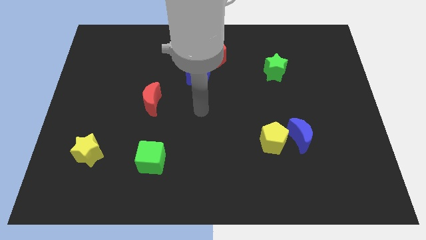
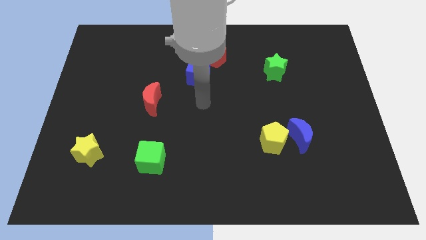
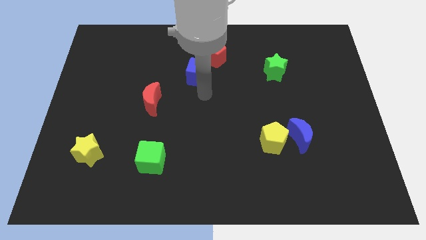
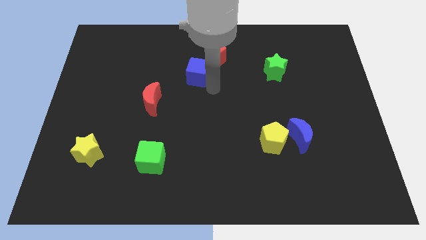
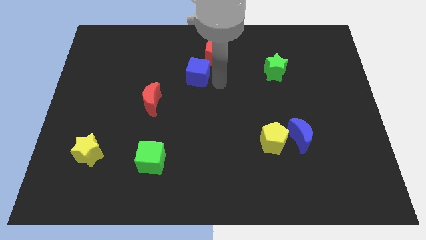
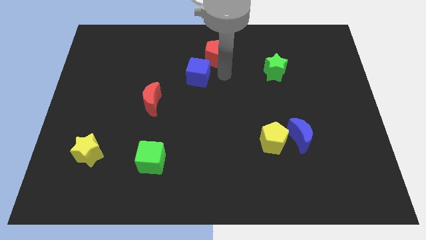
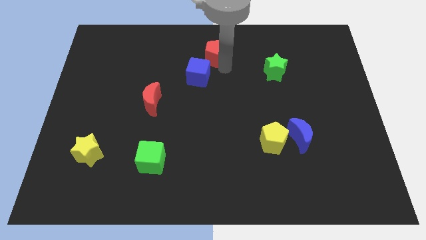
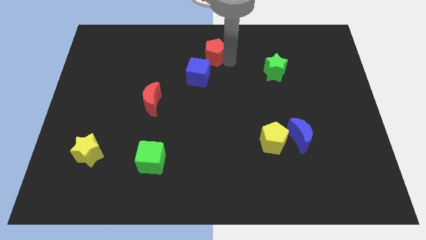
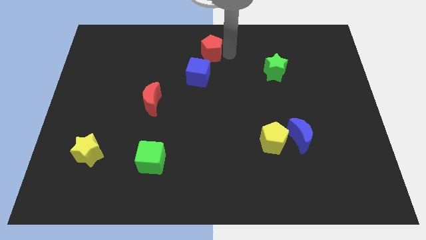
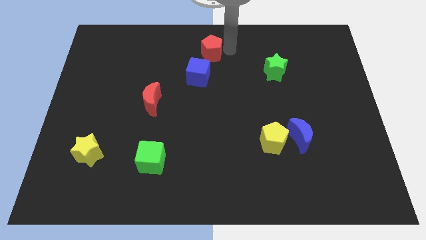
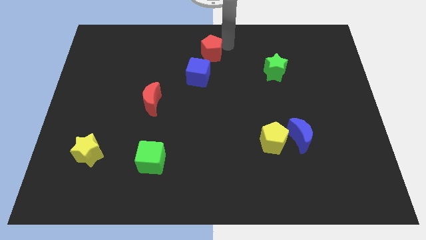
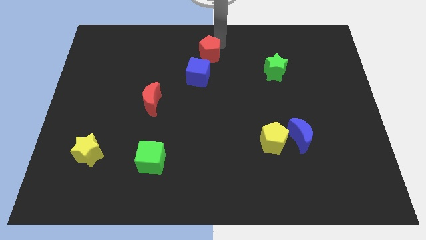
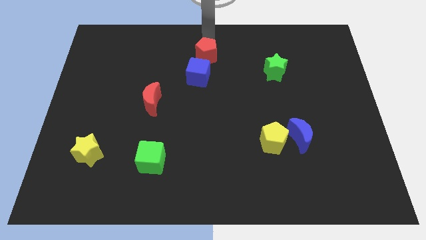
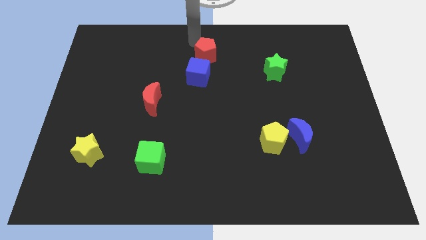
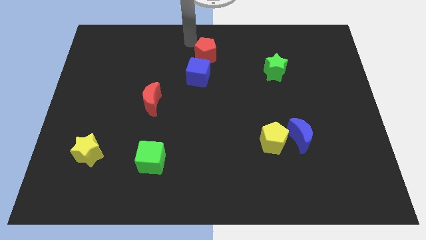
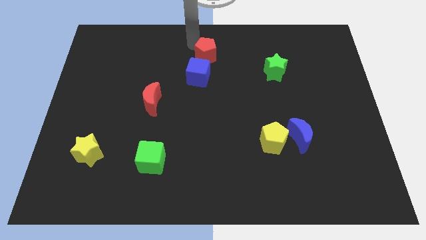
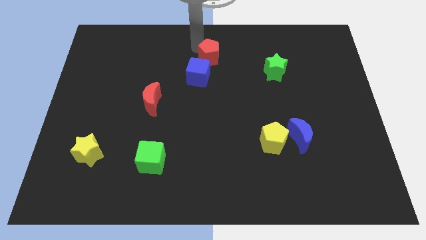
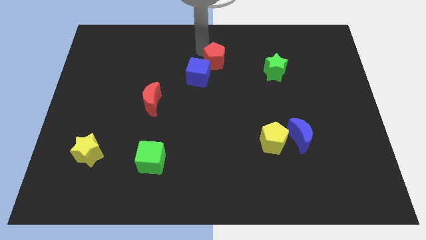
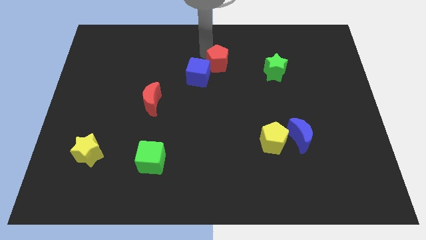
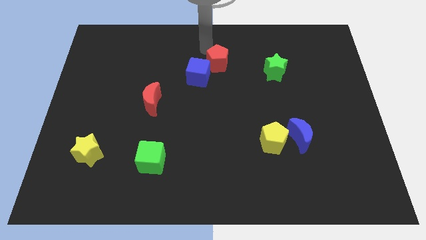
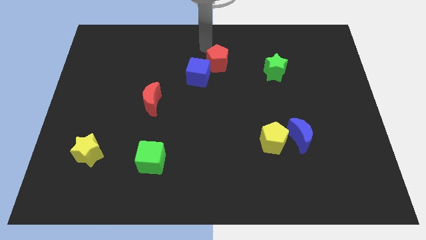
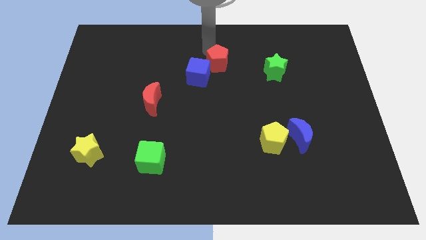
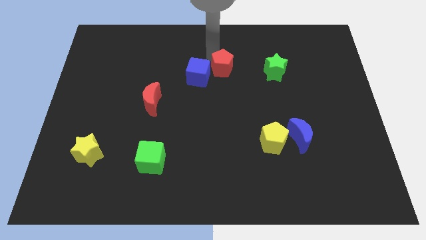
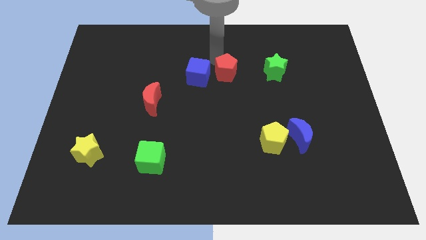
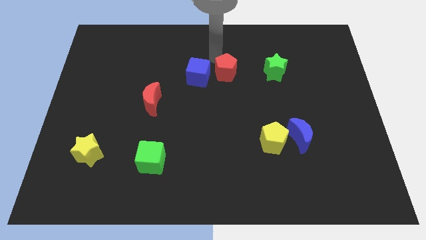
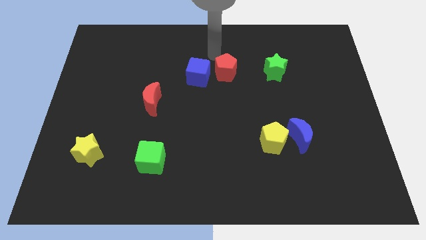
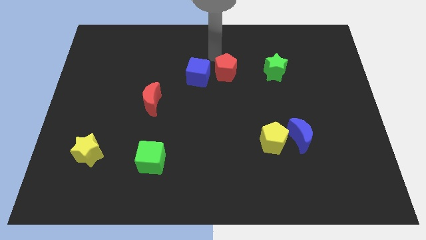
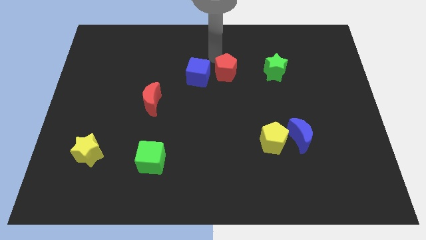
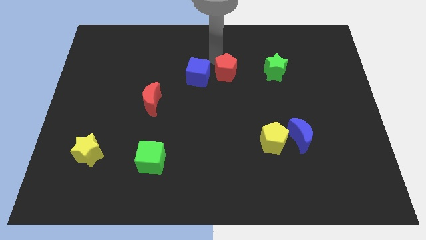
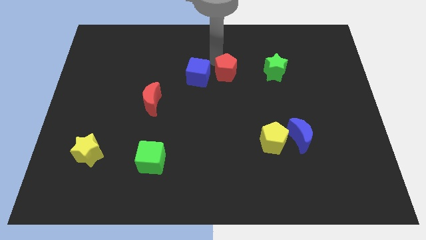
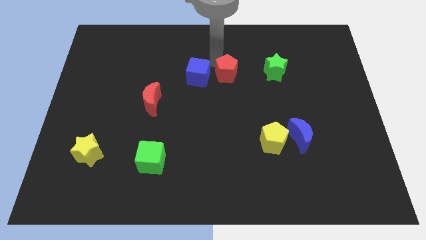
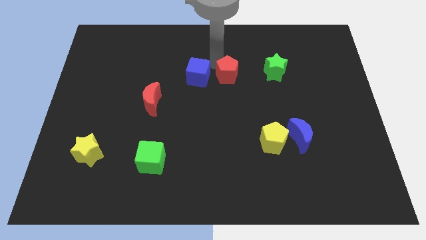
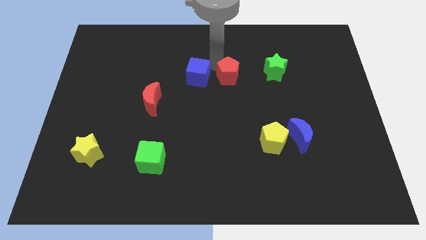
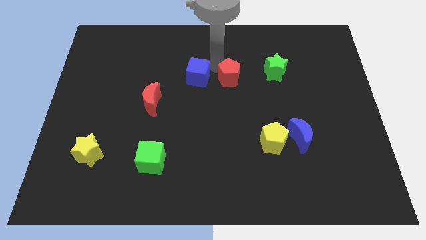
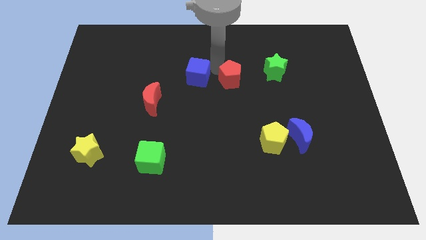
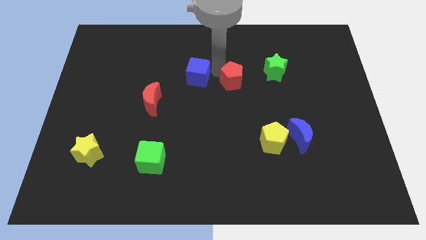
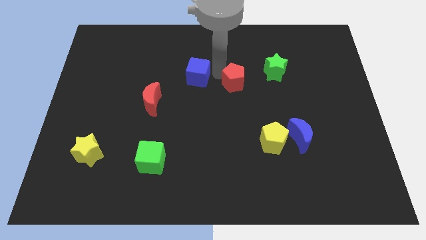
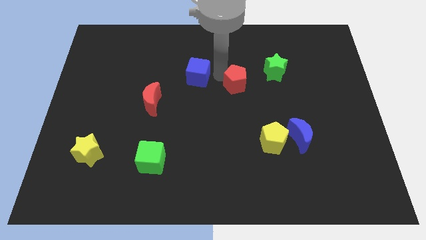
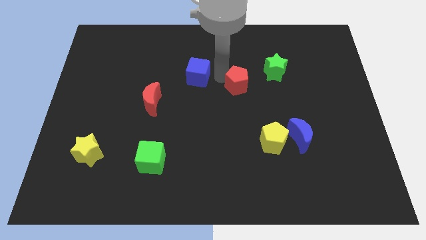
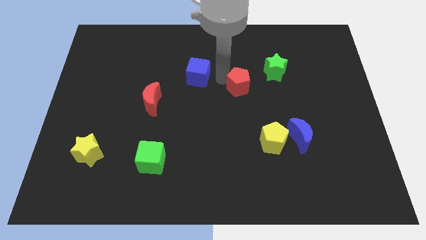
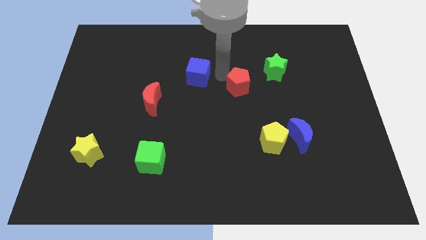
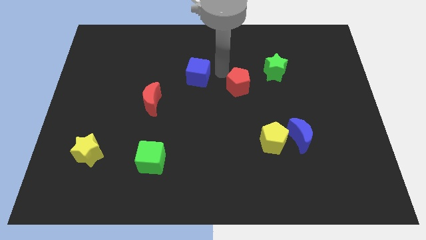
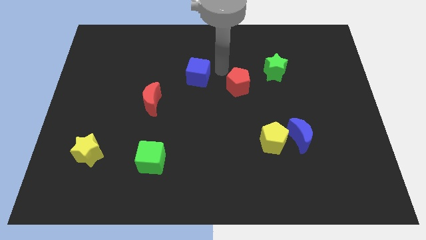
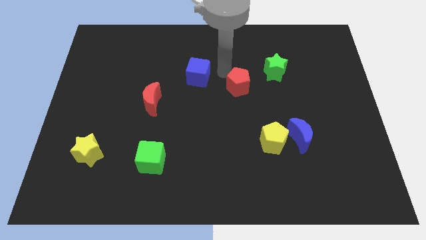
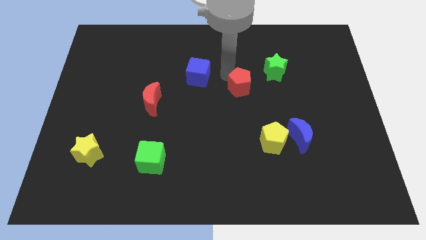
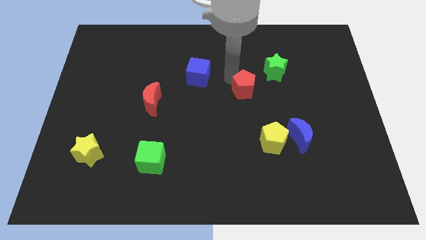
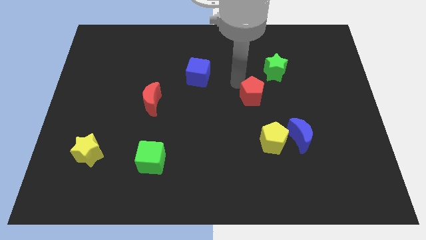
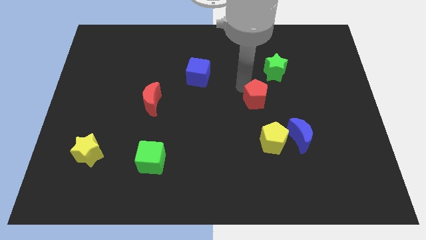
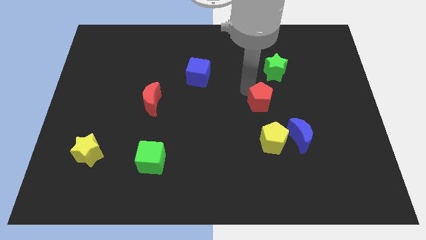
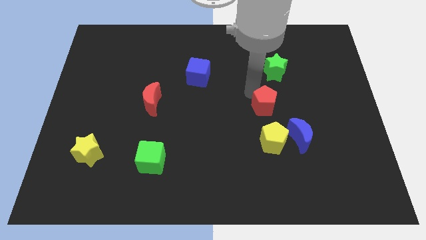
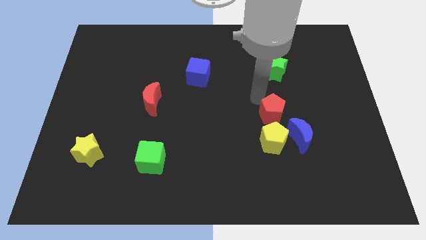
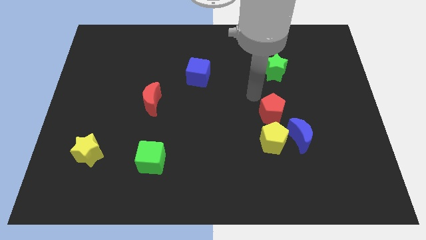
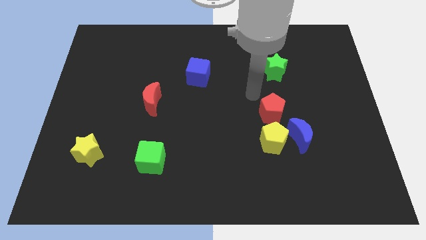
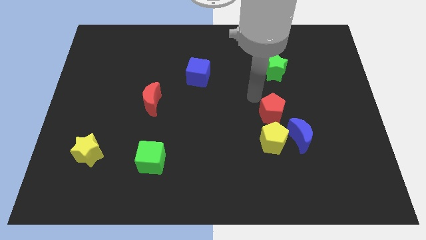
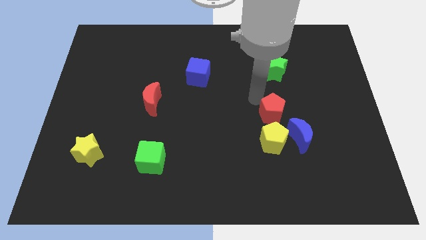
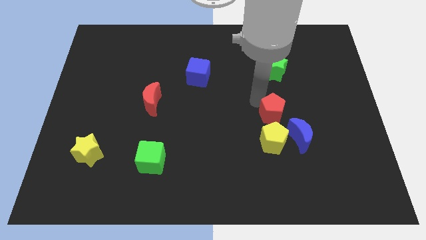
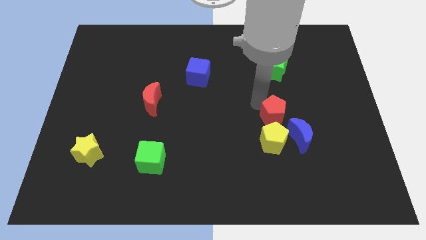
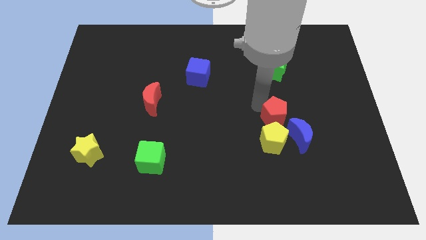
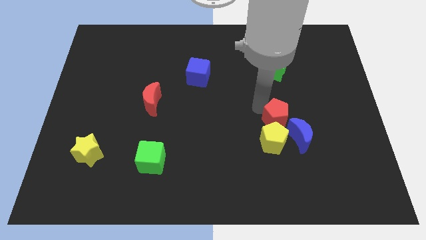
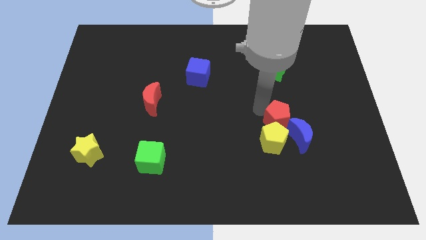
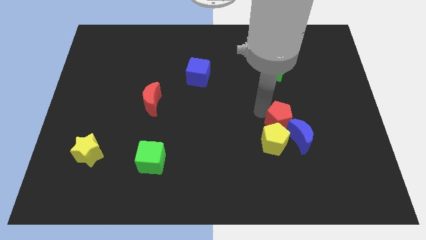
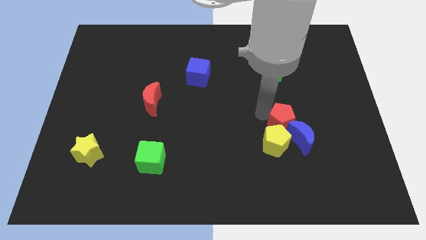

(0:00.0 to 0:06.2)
slide the red pentagon to the blue moon

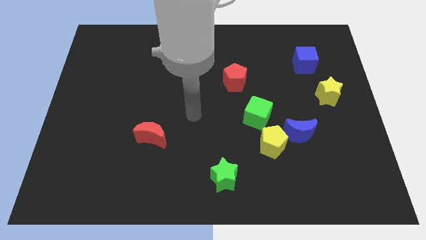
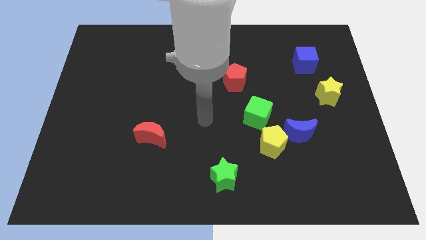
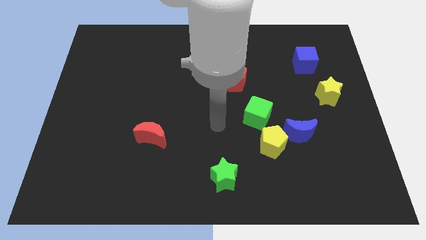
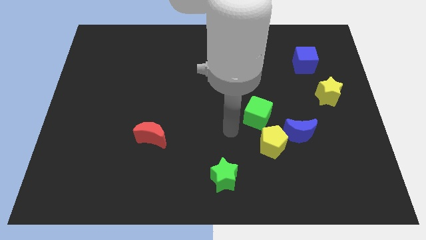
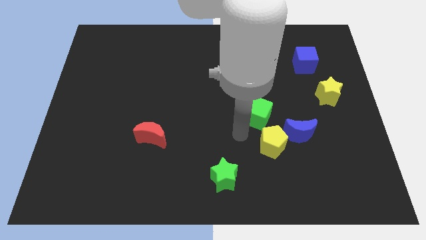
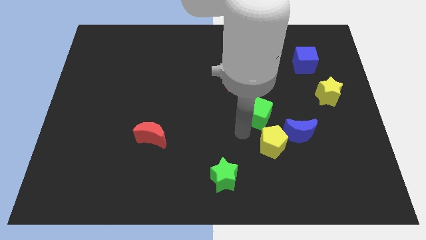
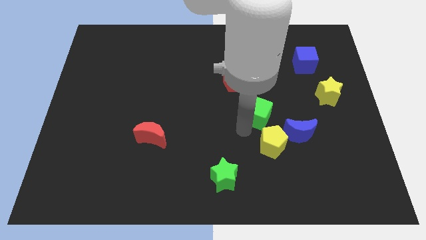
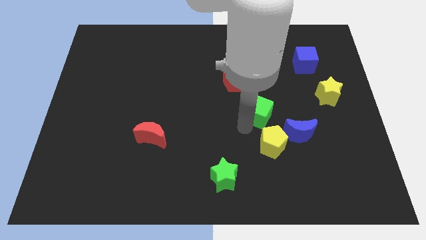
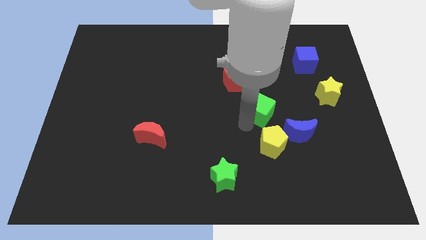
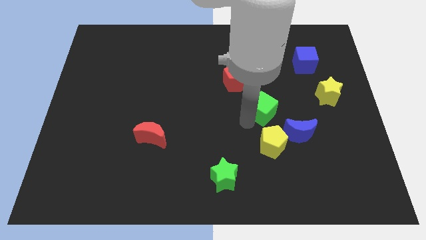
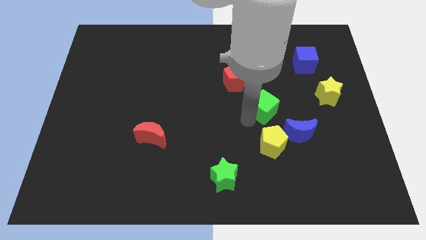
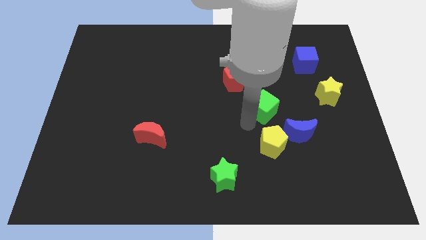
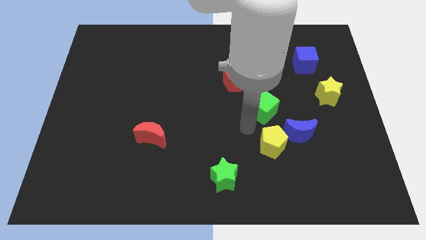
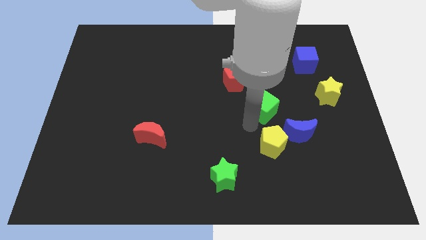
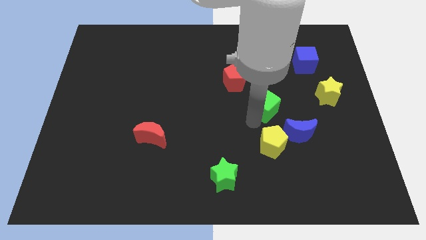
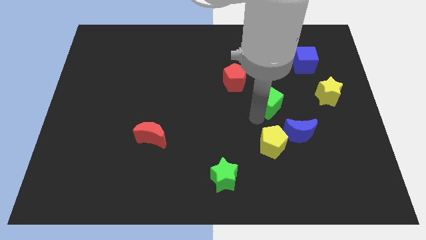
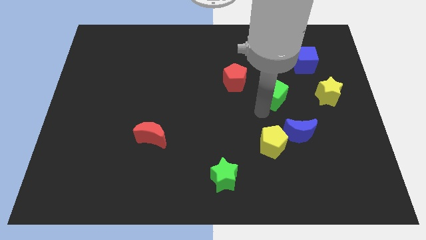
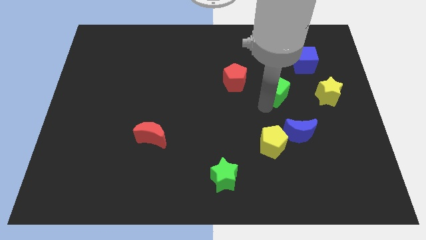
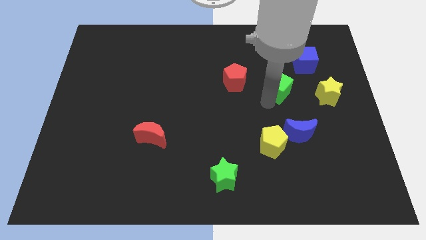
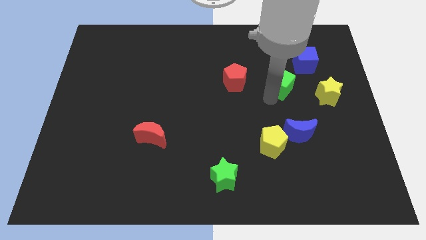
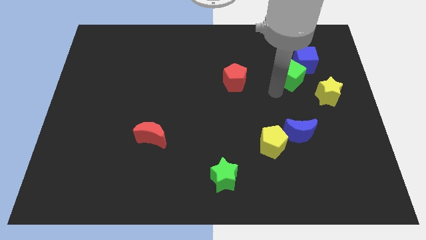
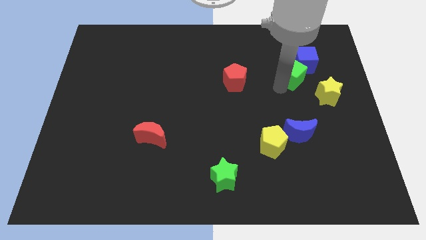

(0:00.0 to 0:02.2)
push the green cube to the blue cube
